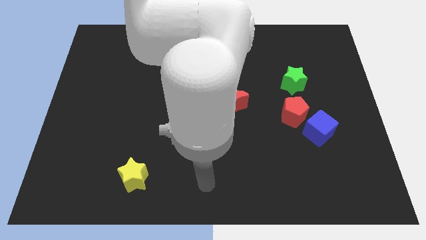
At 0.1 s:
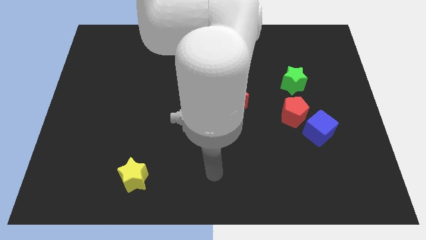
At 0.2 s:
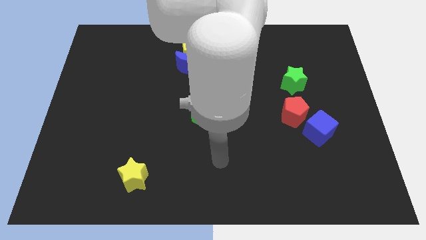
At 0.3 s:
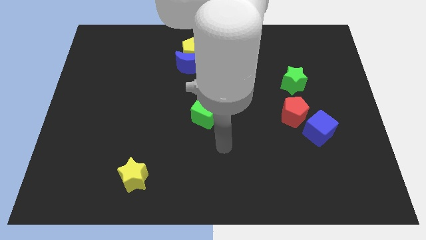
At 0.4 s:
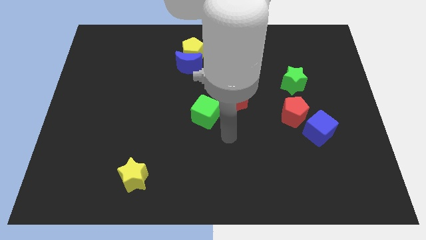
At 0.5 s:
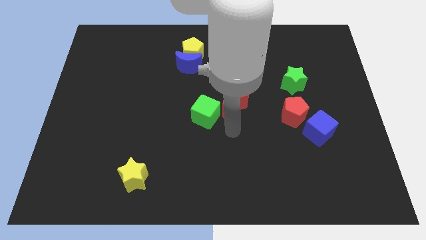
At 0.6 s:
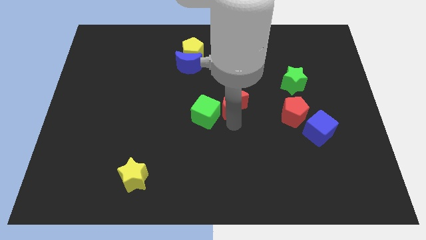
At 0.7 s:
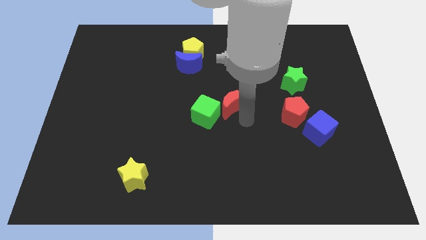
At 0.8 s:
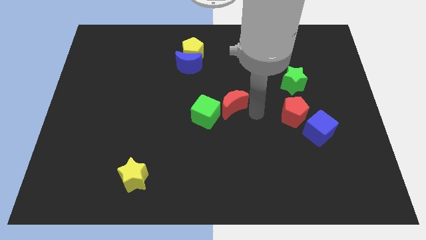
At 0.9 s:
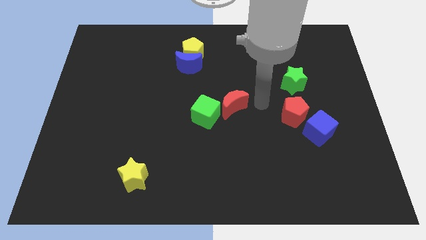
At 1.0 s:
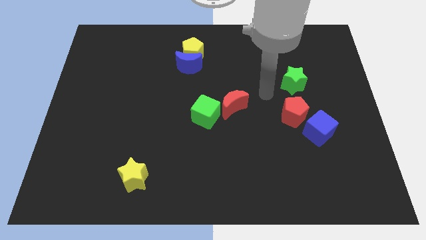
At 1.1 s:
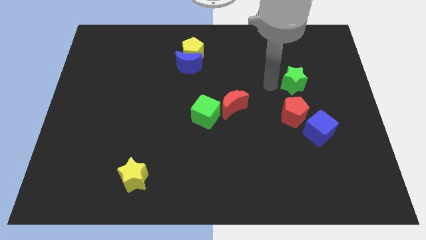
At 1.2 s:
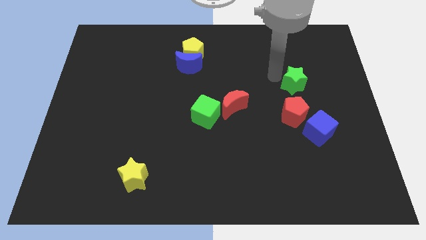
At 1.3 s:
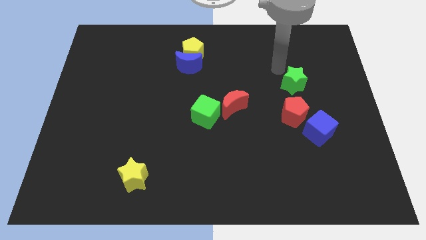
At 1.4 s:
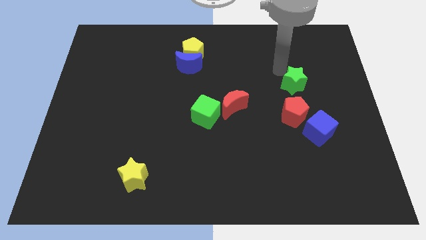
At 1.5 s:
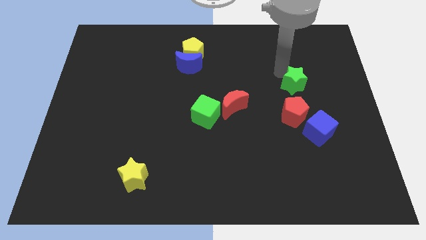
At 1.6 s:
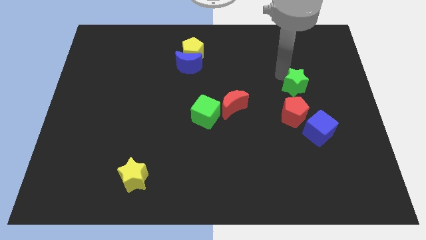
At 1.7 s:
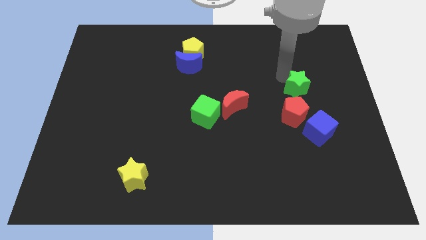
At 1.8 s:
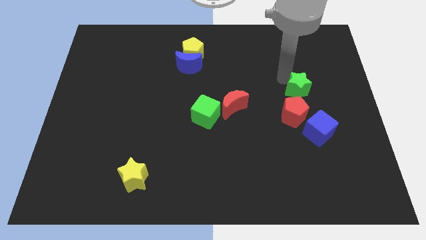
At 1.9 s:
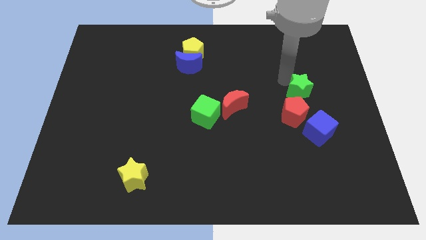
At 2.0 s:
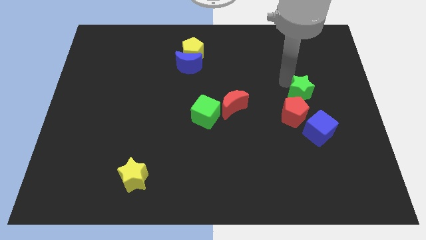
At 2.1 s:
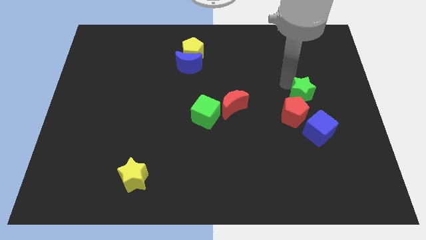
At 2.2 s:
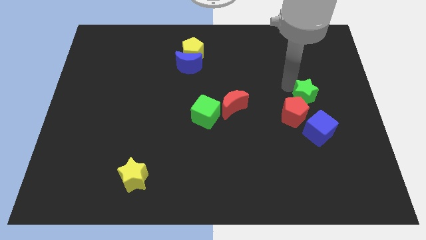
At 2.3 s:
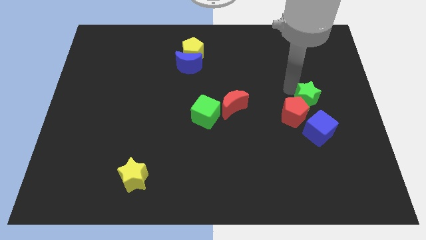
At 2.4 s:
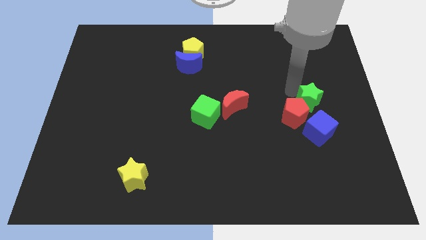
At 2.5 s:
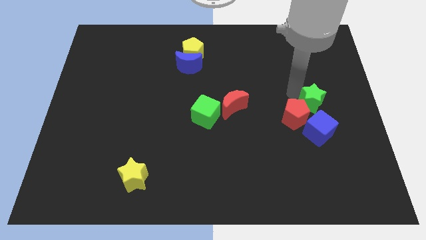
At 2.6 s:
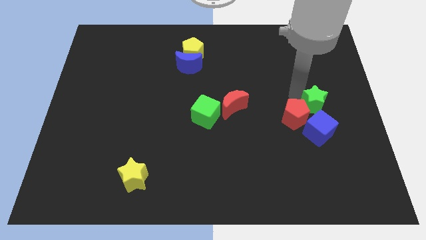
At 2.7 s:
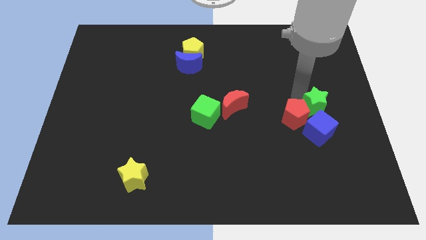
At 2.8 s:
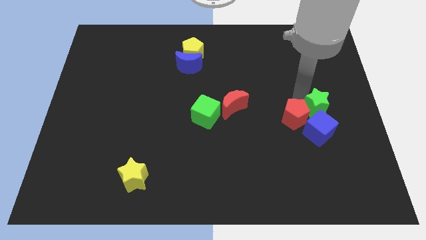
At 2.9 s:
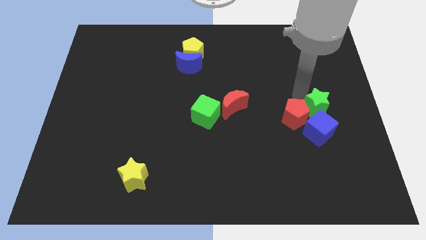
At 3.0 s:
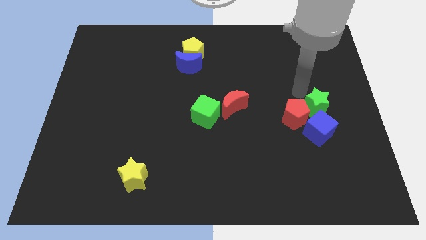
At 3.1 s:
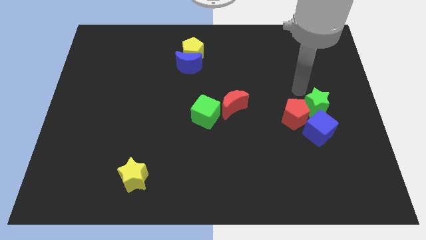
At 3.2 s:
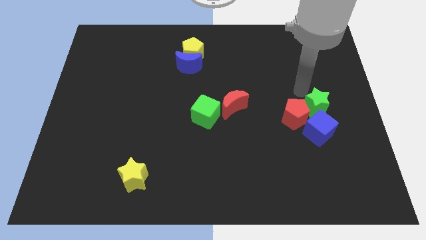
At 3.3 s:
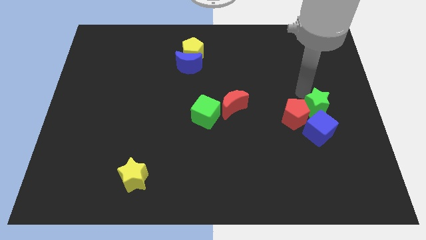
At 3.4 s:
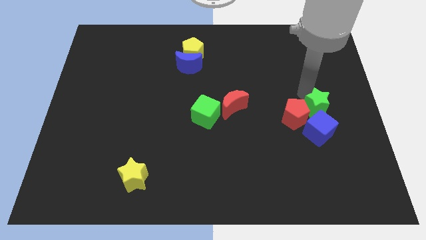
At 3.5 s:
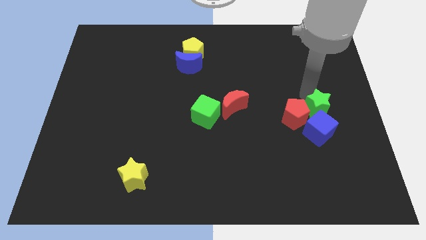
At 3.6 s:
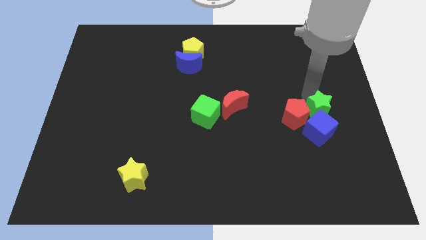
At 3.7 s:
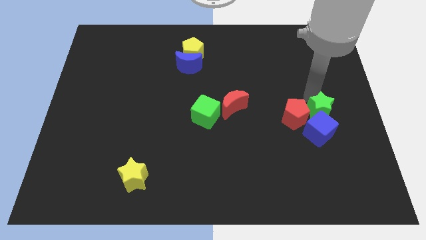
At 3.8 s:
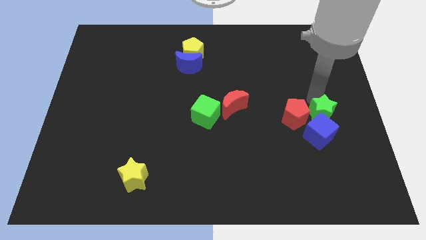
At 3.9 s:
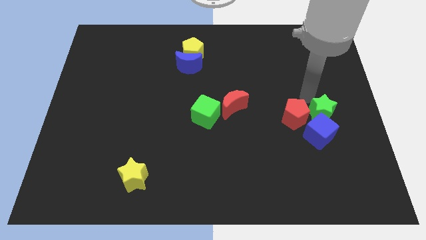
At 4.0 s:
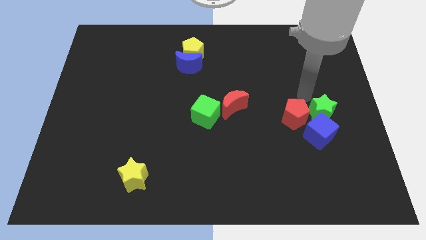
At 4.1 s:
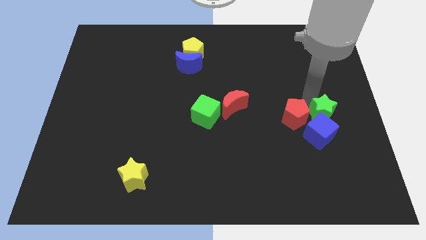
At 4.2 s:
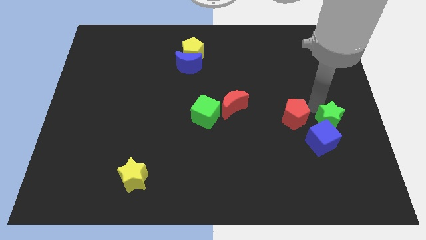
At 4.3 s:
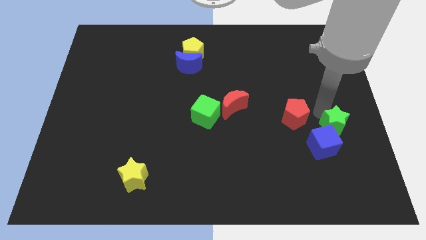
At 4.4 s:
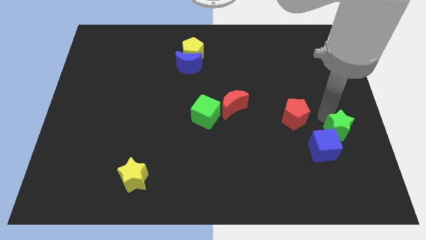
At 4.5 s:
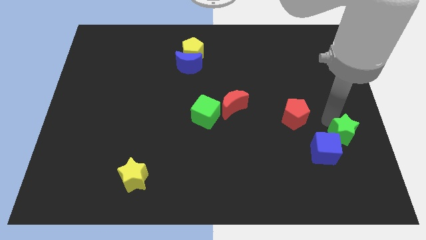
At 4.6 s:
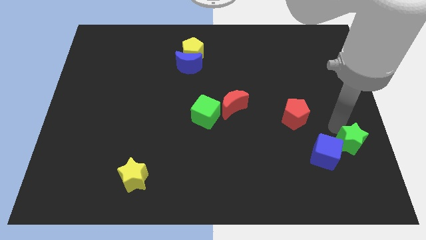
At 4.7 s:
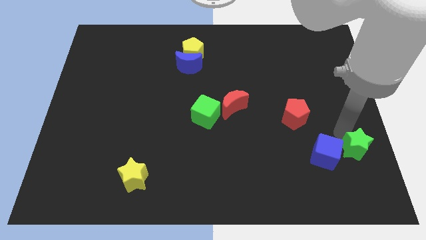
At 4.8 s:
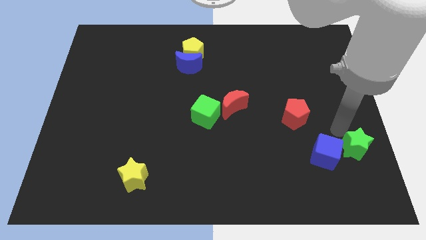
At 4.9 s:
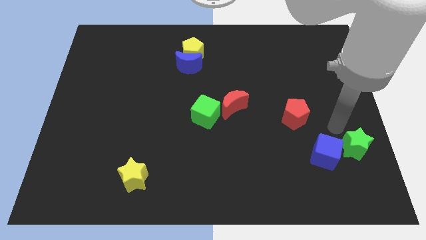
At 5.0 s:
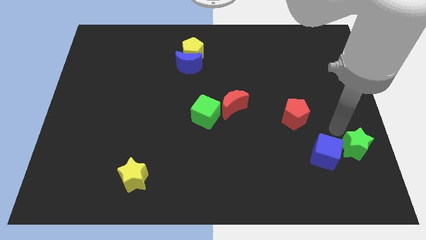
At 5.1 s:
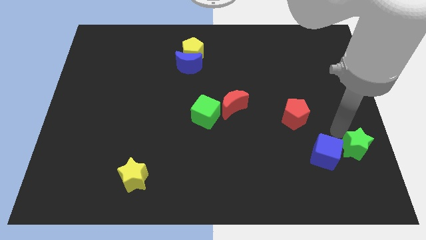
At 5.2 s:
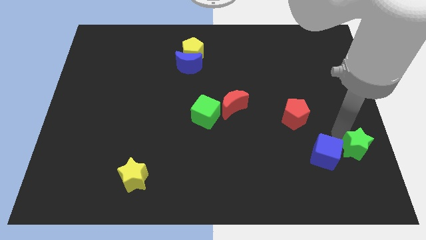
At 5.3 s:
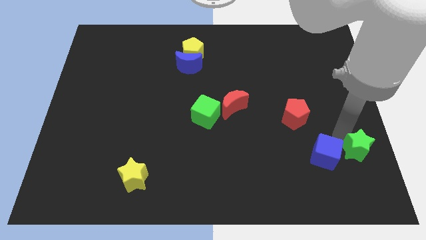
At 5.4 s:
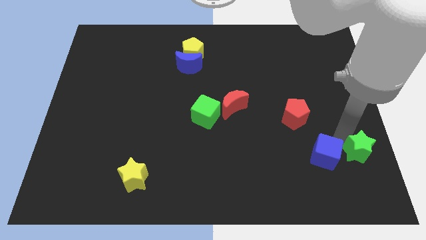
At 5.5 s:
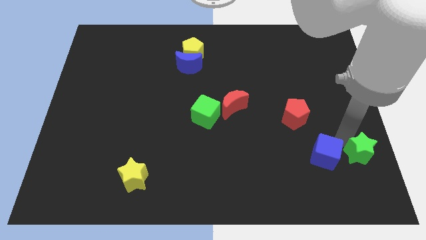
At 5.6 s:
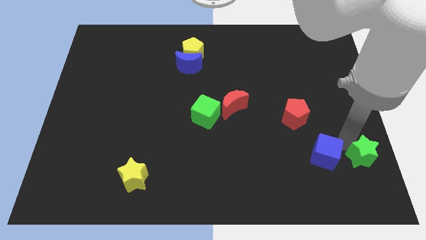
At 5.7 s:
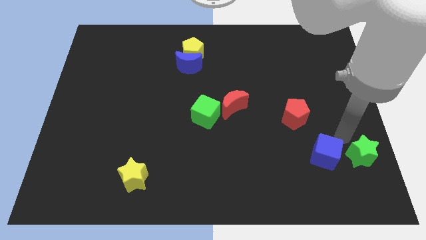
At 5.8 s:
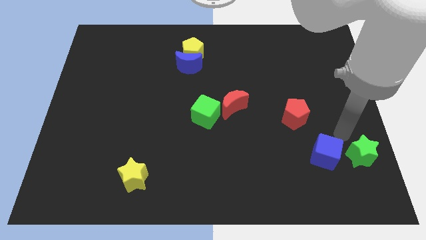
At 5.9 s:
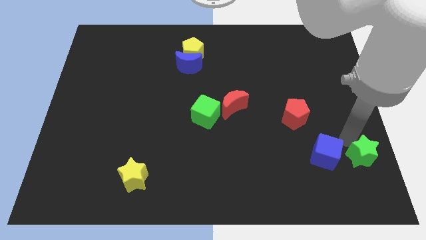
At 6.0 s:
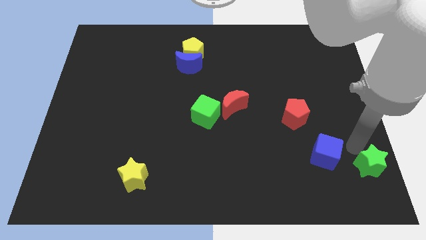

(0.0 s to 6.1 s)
push the green star to the bottom right corner
